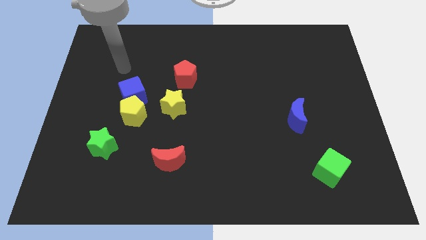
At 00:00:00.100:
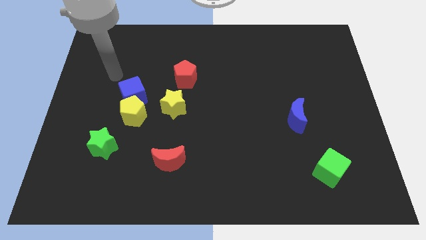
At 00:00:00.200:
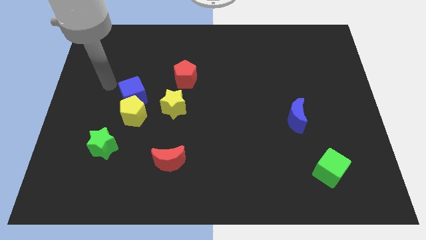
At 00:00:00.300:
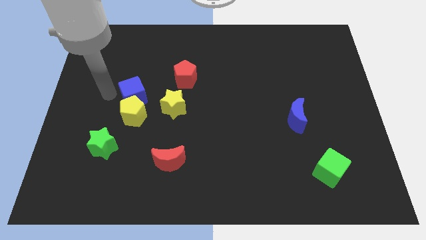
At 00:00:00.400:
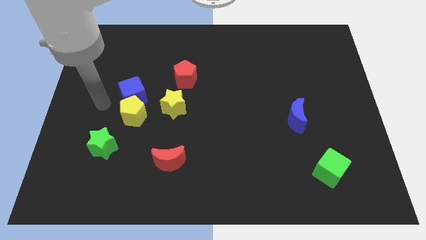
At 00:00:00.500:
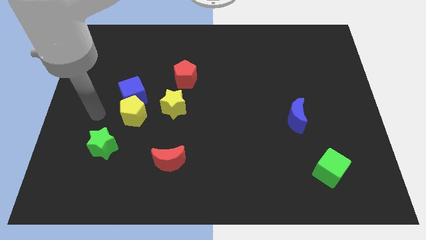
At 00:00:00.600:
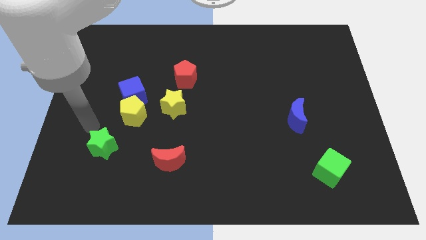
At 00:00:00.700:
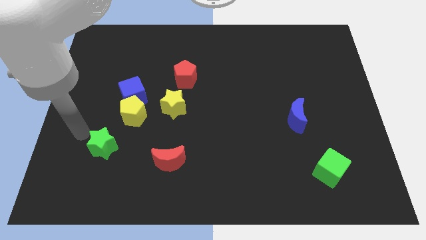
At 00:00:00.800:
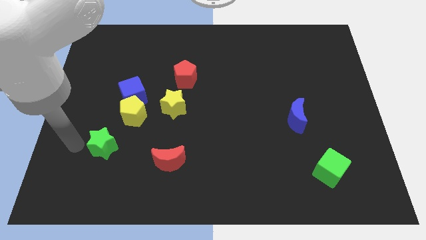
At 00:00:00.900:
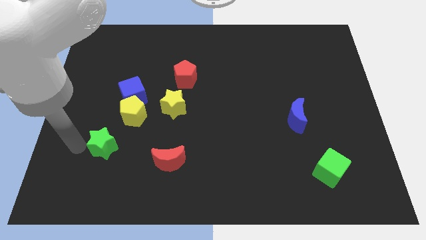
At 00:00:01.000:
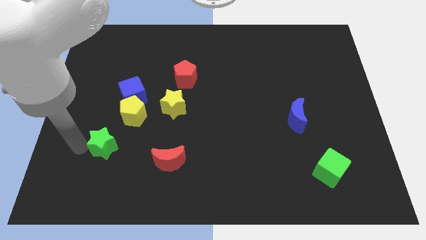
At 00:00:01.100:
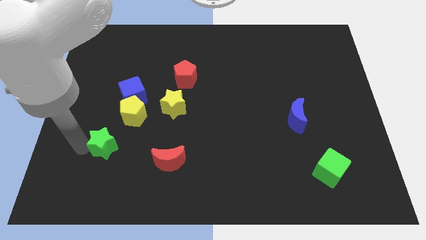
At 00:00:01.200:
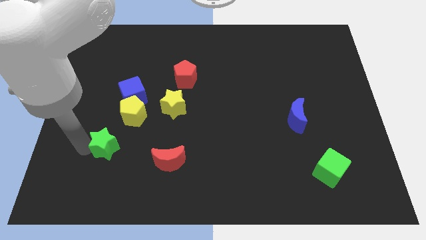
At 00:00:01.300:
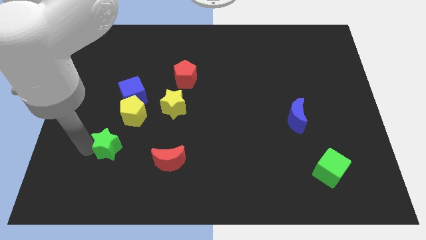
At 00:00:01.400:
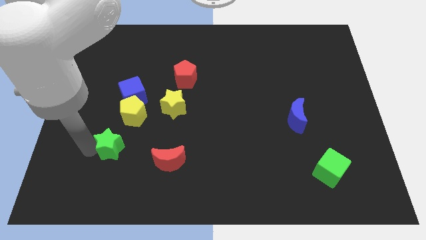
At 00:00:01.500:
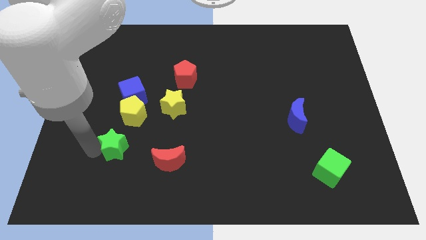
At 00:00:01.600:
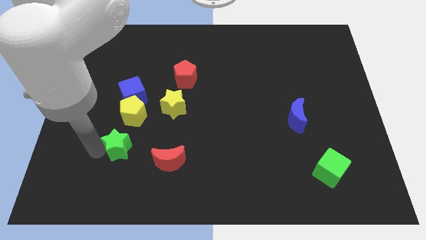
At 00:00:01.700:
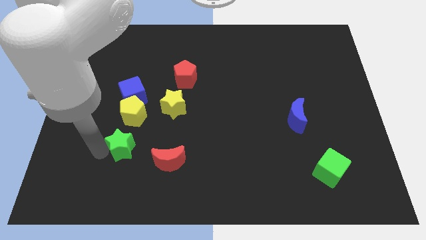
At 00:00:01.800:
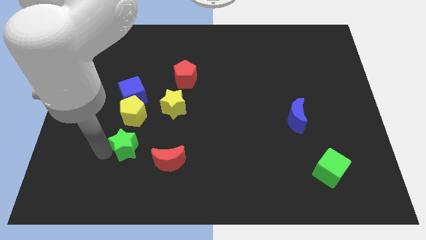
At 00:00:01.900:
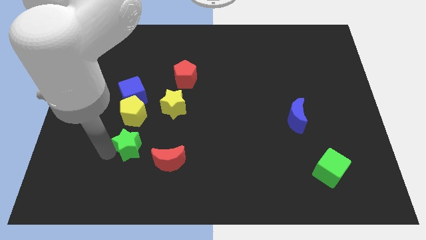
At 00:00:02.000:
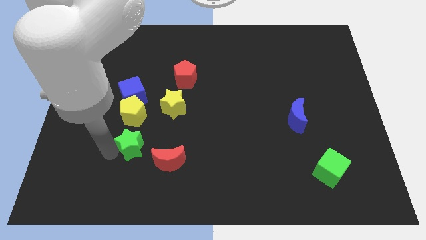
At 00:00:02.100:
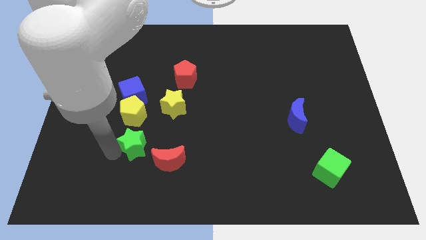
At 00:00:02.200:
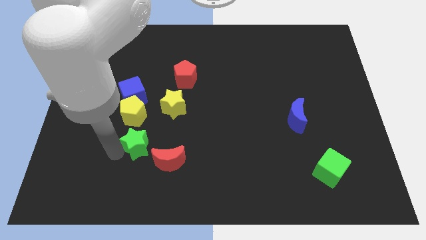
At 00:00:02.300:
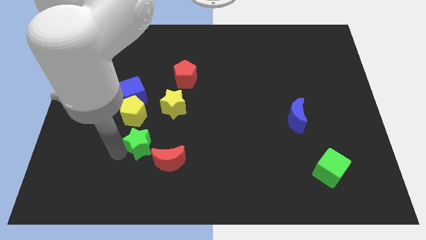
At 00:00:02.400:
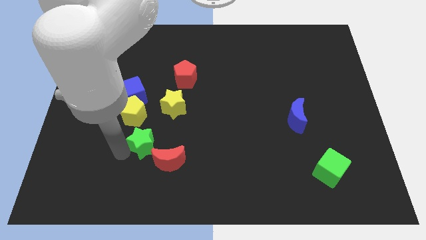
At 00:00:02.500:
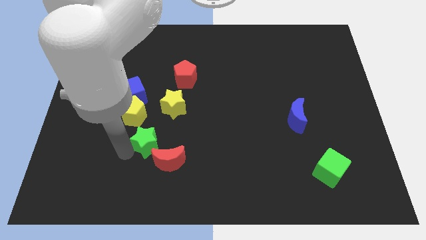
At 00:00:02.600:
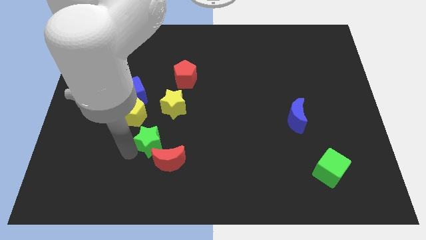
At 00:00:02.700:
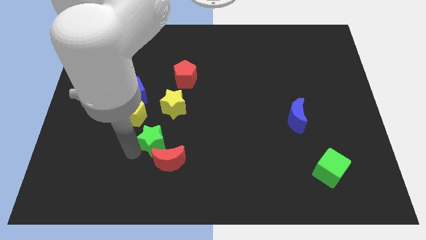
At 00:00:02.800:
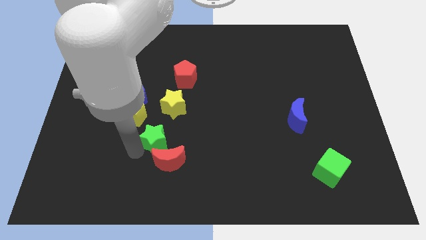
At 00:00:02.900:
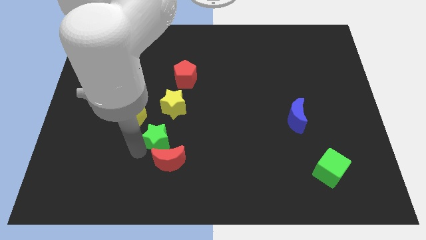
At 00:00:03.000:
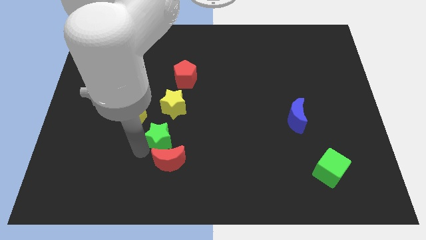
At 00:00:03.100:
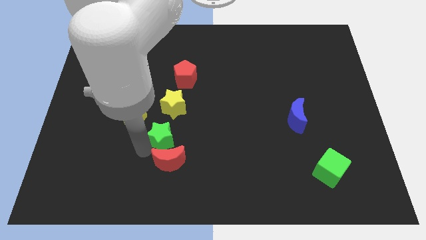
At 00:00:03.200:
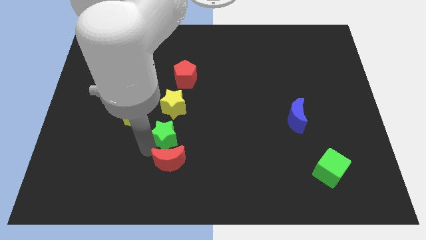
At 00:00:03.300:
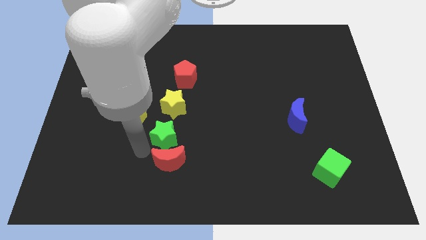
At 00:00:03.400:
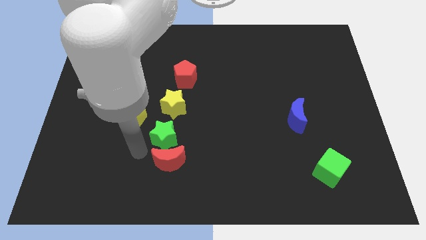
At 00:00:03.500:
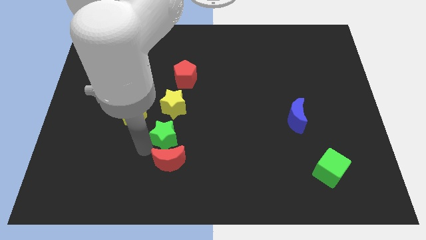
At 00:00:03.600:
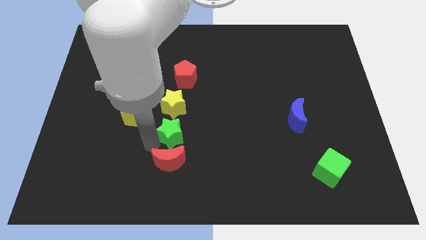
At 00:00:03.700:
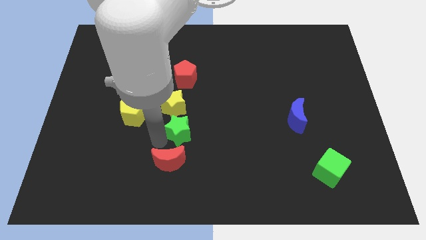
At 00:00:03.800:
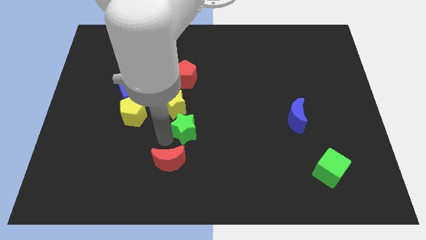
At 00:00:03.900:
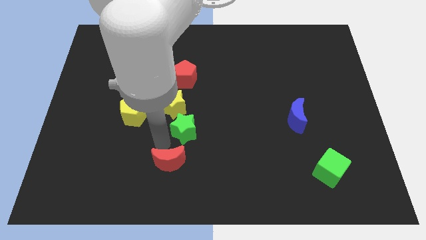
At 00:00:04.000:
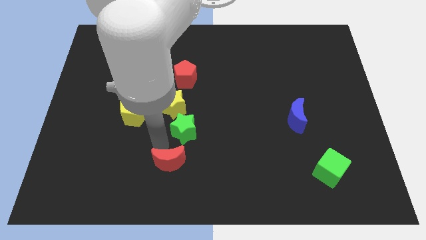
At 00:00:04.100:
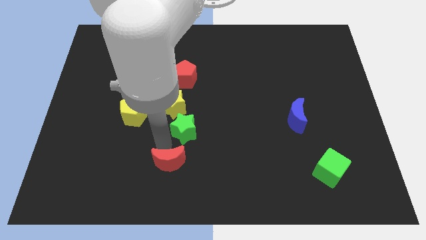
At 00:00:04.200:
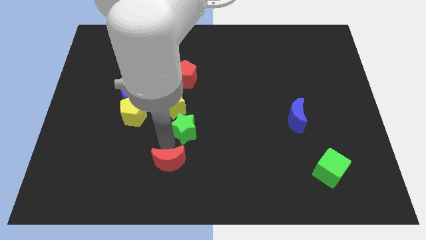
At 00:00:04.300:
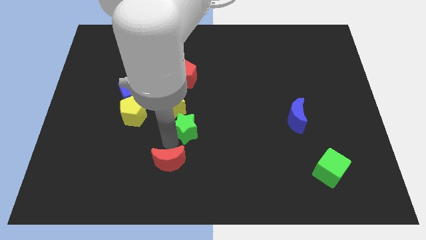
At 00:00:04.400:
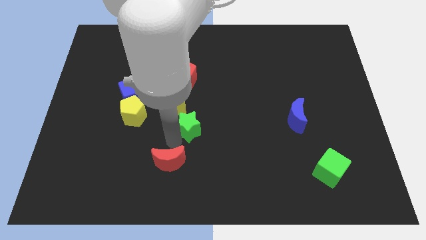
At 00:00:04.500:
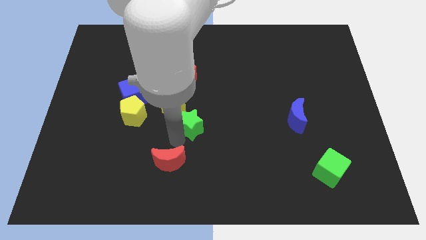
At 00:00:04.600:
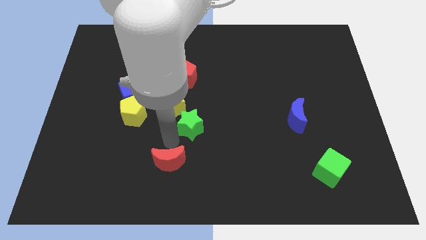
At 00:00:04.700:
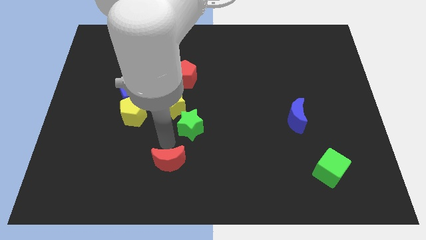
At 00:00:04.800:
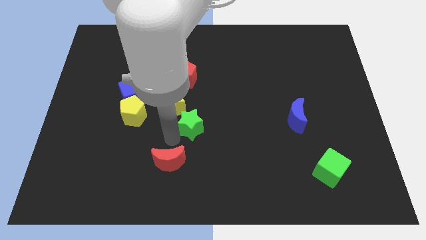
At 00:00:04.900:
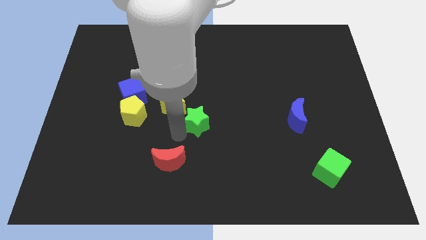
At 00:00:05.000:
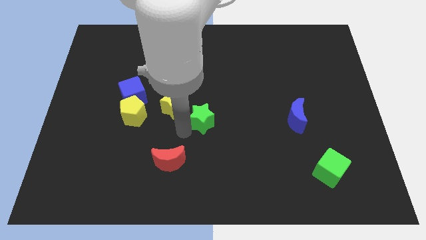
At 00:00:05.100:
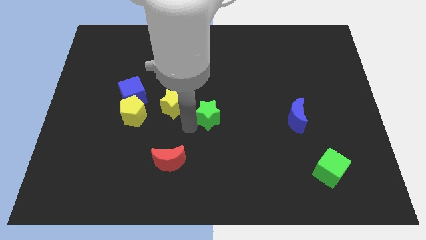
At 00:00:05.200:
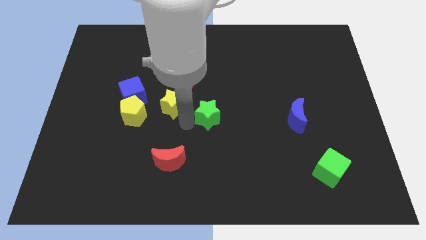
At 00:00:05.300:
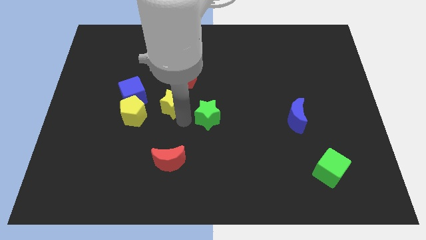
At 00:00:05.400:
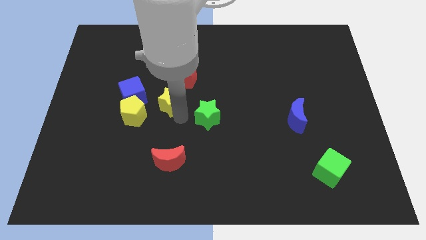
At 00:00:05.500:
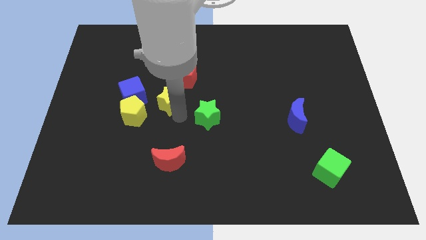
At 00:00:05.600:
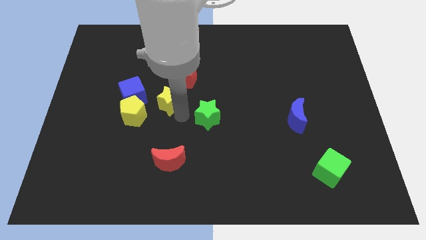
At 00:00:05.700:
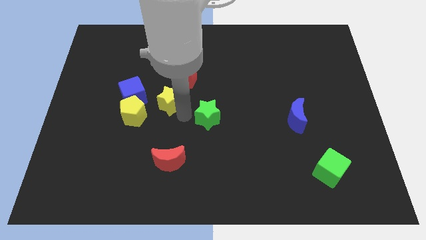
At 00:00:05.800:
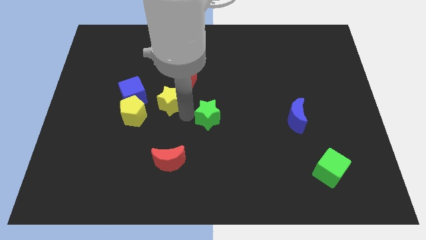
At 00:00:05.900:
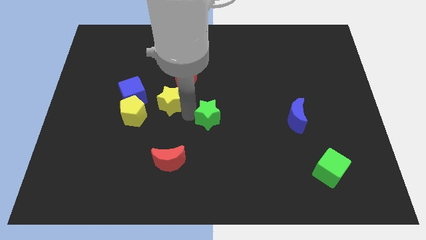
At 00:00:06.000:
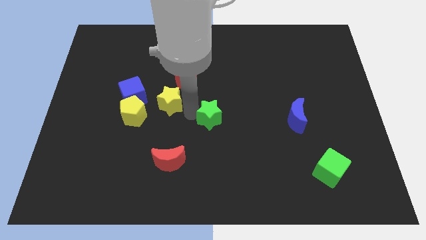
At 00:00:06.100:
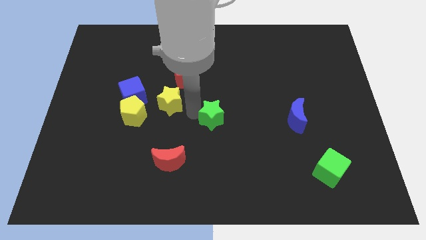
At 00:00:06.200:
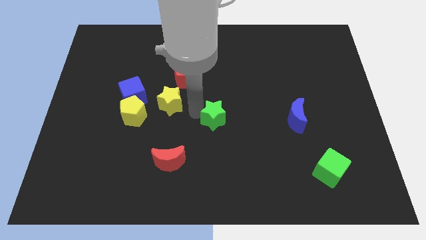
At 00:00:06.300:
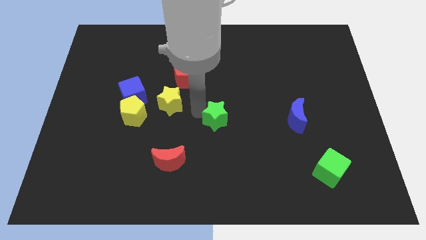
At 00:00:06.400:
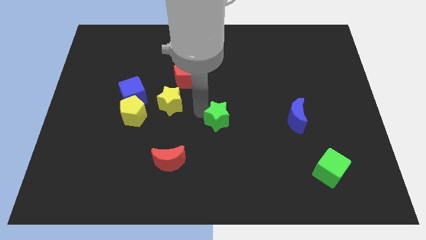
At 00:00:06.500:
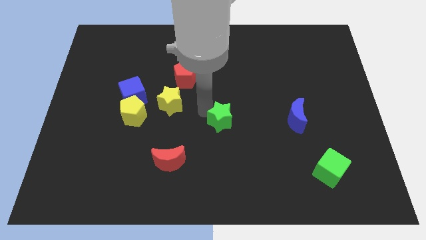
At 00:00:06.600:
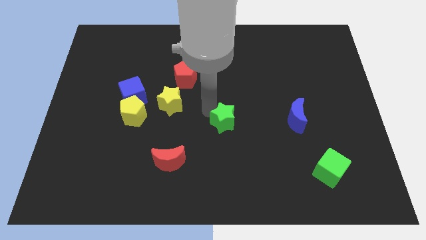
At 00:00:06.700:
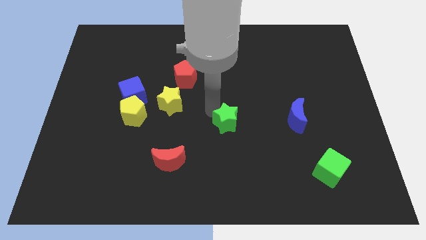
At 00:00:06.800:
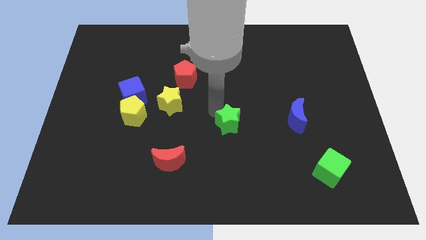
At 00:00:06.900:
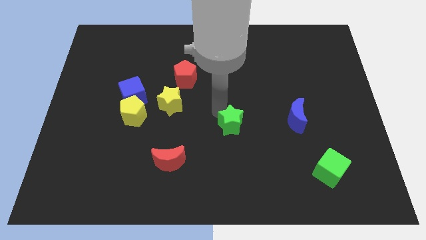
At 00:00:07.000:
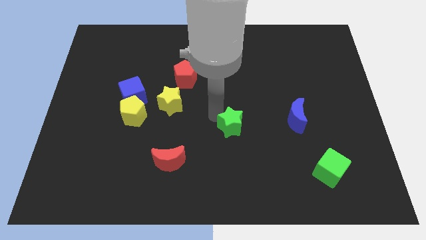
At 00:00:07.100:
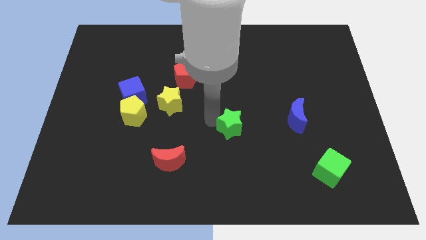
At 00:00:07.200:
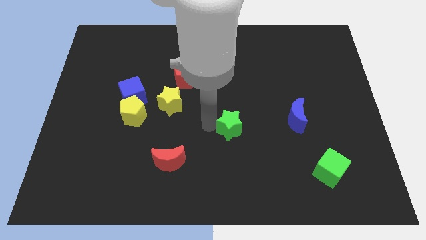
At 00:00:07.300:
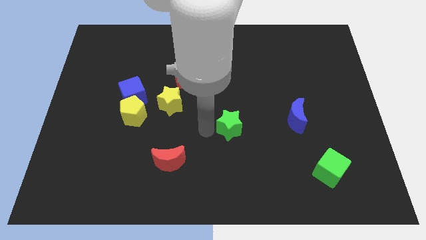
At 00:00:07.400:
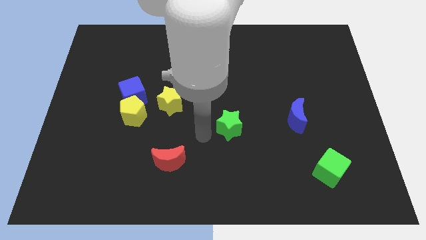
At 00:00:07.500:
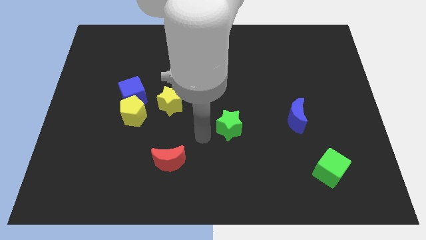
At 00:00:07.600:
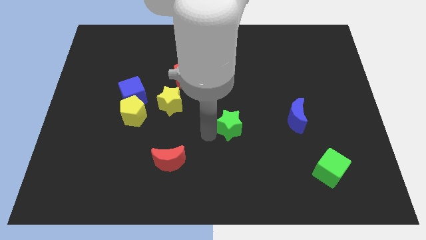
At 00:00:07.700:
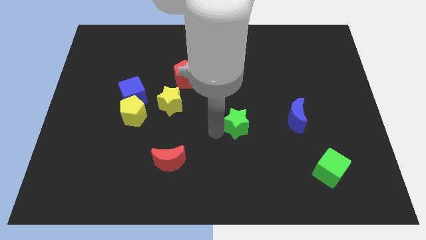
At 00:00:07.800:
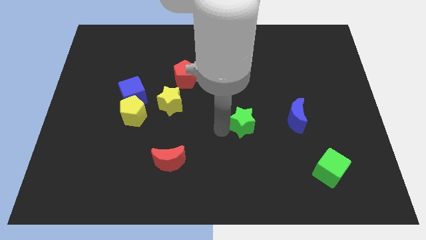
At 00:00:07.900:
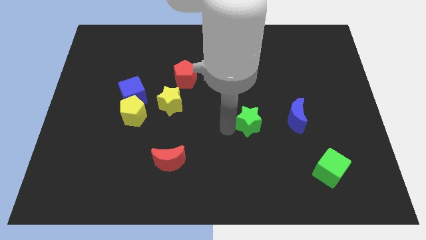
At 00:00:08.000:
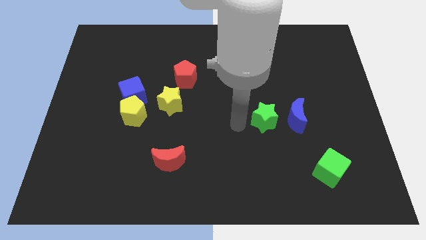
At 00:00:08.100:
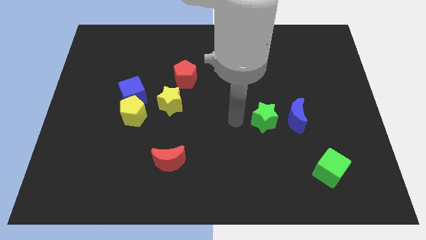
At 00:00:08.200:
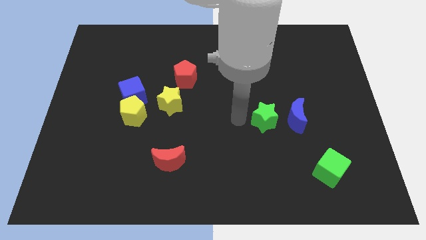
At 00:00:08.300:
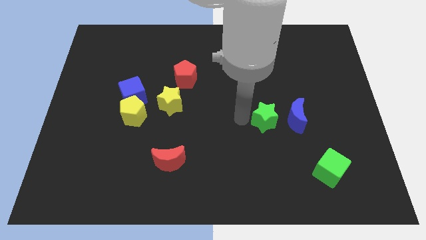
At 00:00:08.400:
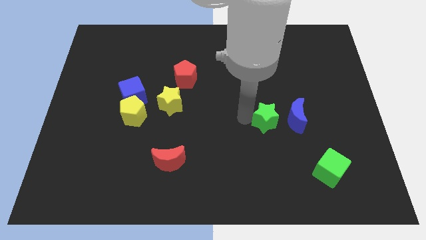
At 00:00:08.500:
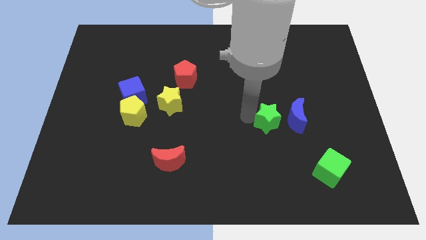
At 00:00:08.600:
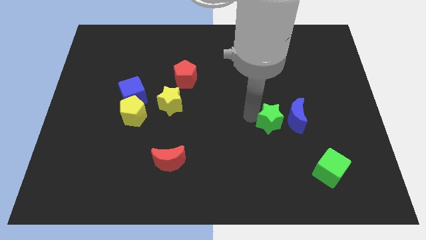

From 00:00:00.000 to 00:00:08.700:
move the green star next to the blue moon
